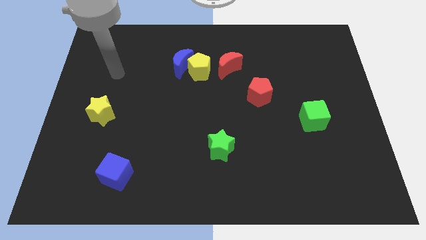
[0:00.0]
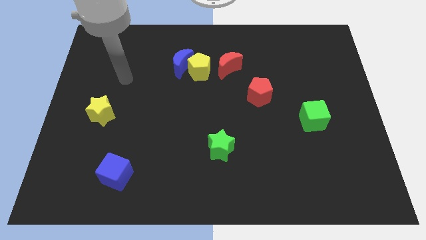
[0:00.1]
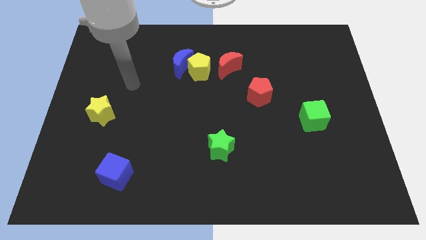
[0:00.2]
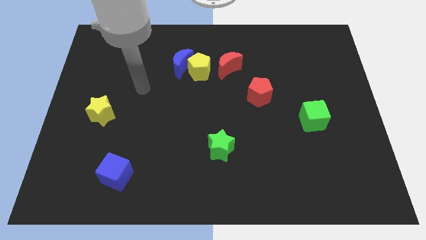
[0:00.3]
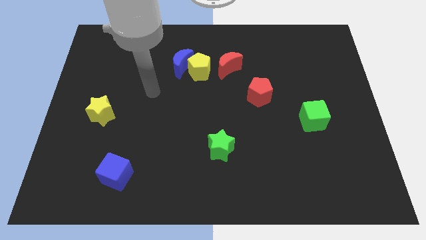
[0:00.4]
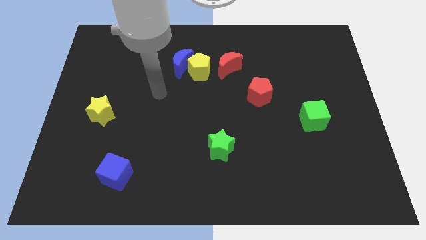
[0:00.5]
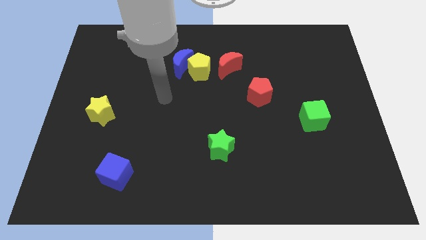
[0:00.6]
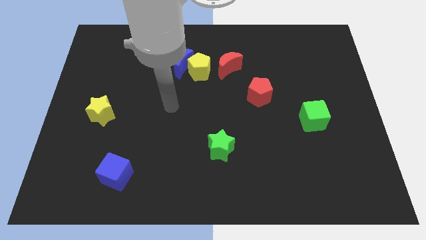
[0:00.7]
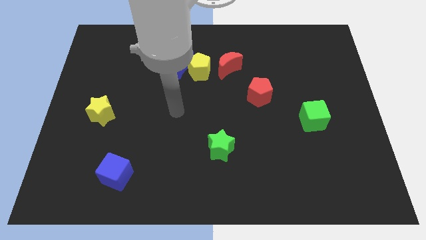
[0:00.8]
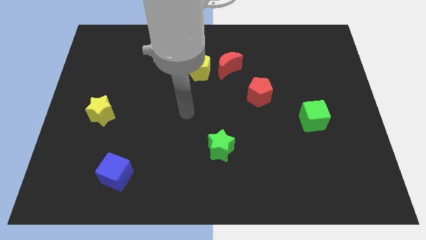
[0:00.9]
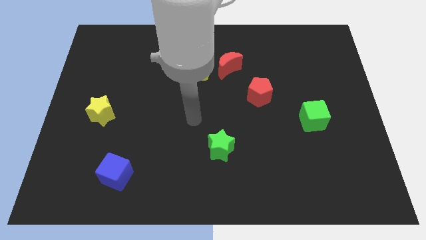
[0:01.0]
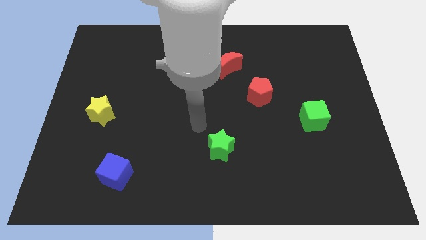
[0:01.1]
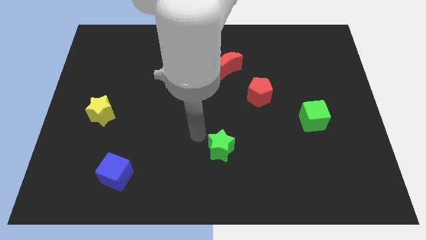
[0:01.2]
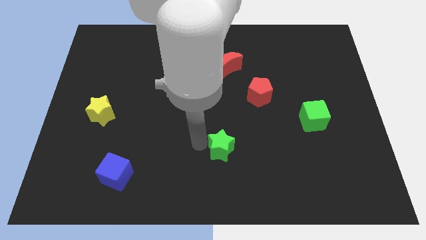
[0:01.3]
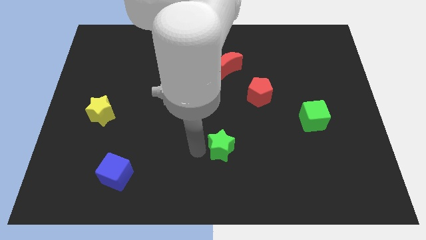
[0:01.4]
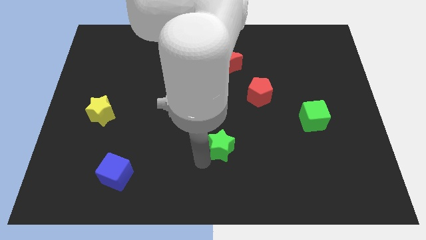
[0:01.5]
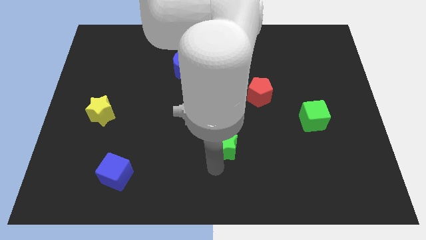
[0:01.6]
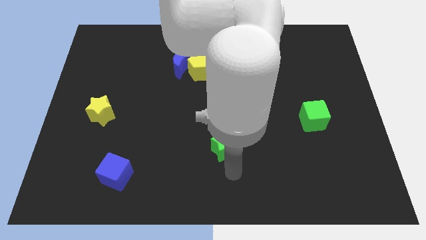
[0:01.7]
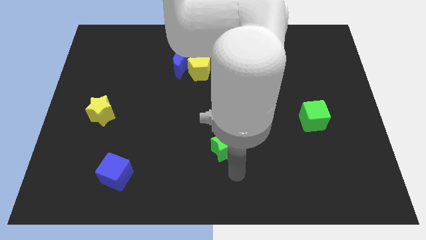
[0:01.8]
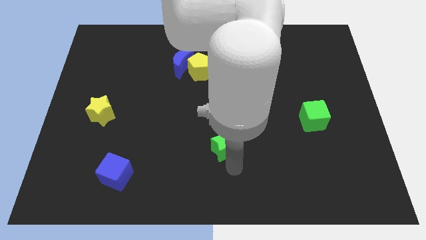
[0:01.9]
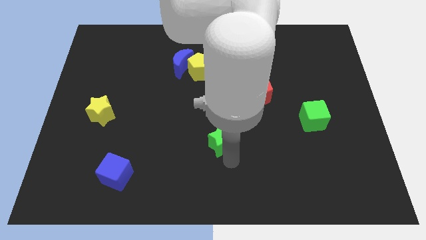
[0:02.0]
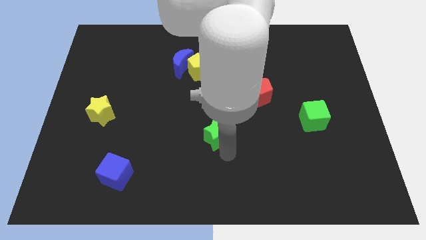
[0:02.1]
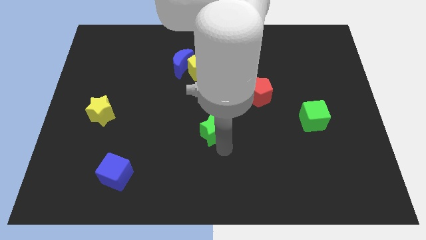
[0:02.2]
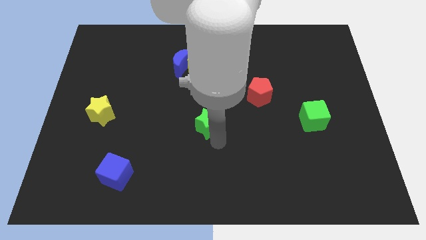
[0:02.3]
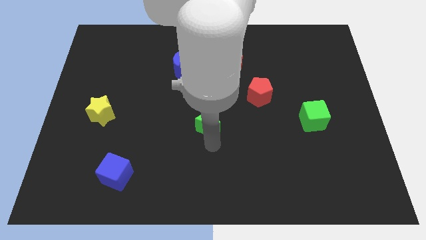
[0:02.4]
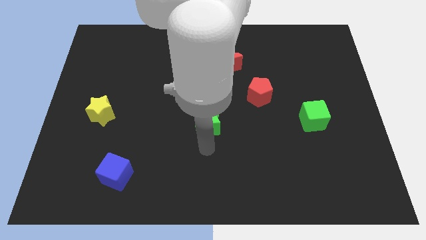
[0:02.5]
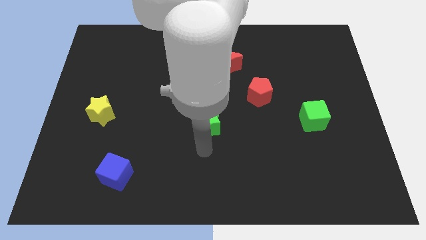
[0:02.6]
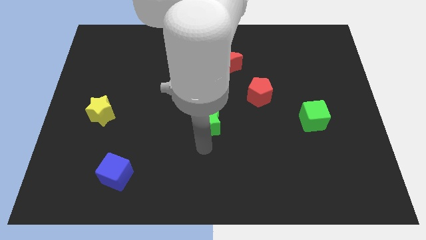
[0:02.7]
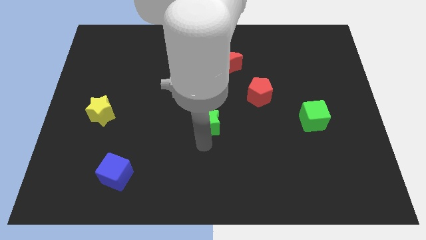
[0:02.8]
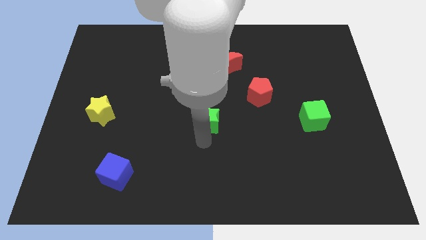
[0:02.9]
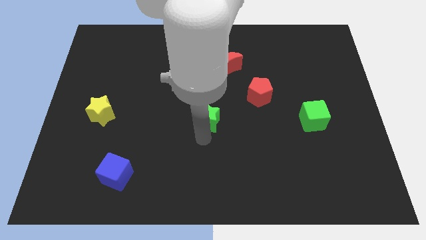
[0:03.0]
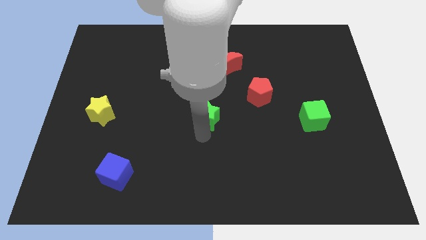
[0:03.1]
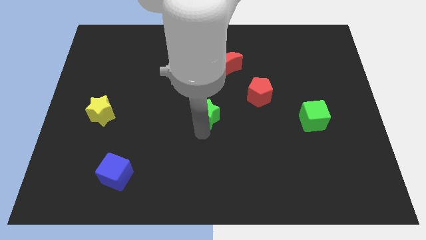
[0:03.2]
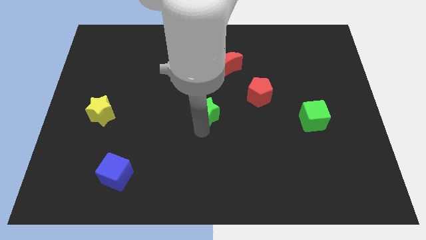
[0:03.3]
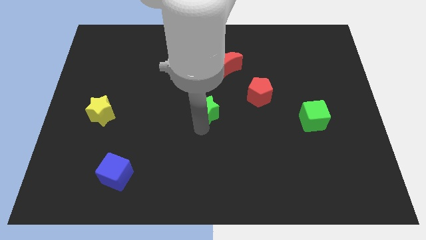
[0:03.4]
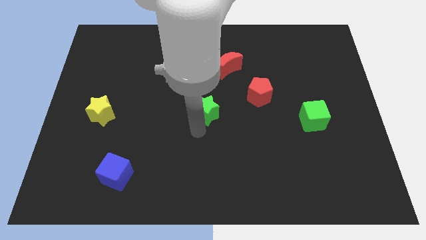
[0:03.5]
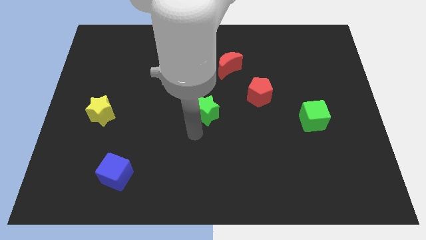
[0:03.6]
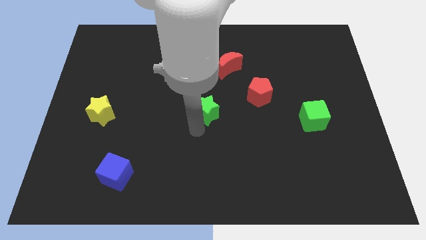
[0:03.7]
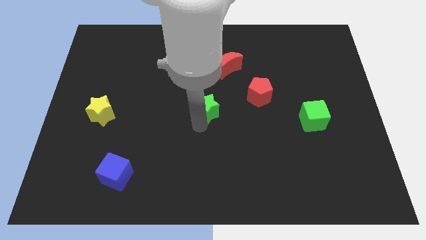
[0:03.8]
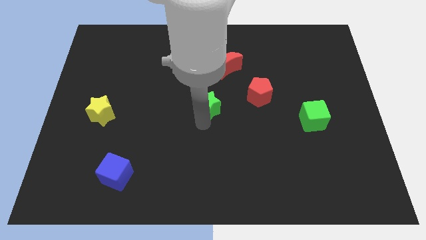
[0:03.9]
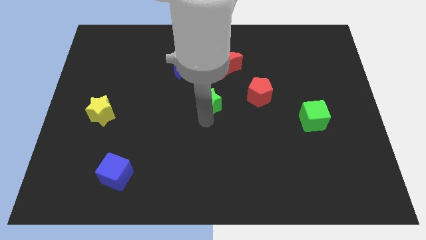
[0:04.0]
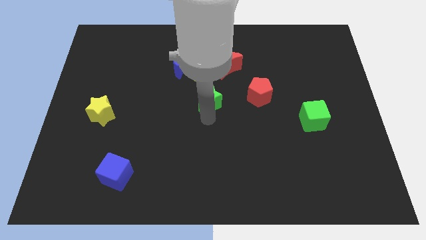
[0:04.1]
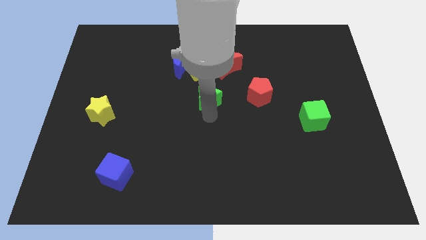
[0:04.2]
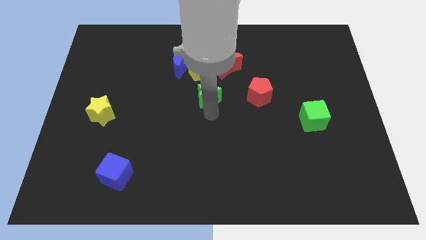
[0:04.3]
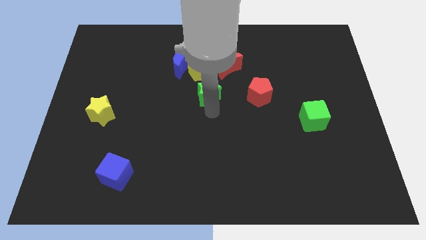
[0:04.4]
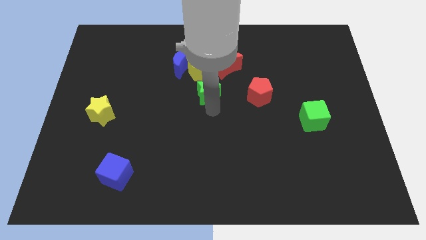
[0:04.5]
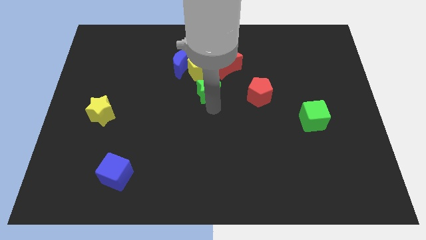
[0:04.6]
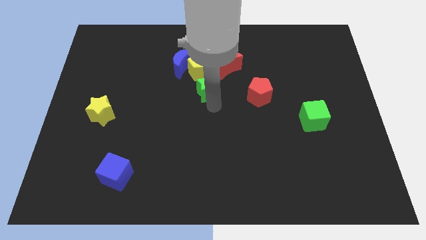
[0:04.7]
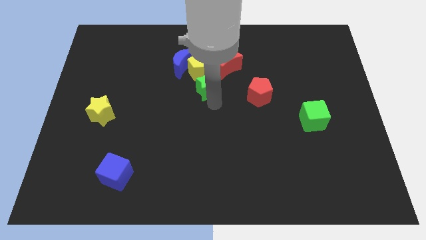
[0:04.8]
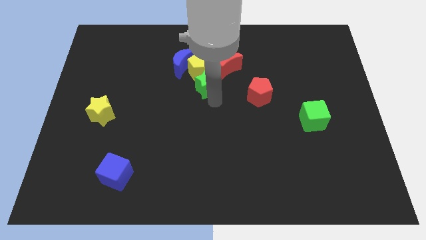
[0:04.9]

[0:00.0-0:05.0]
slide the green star next to the yellow pentagon

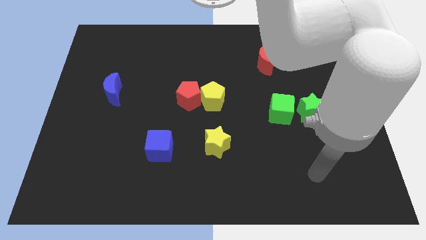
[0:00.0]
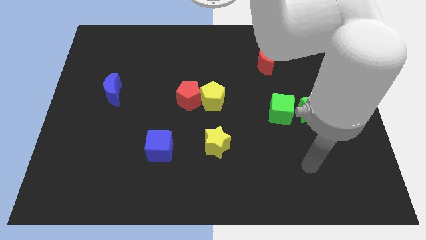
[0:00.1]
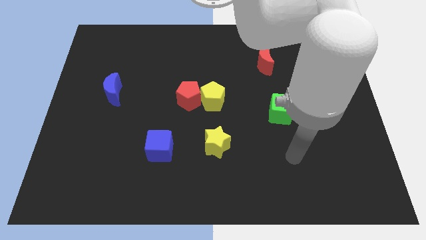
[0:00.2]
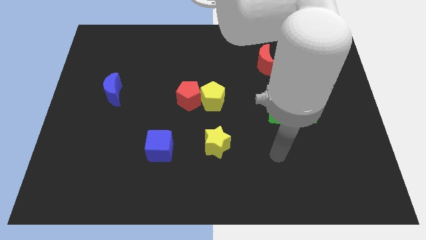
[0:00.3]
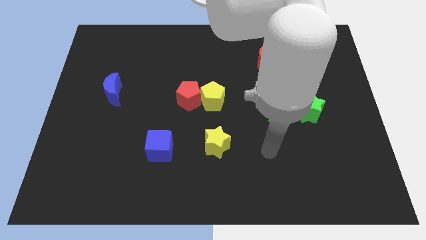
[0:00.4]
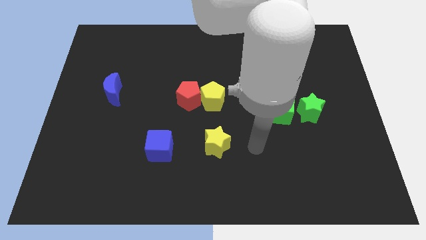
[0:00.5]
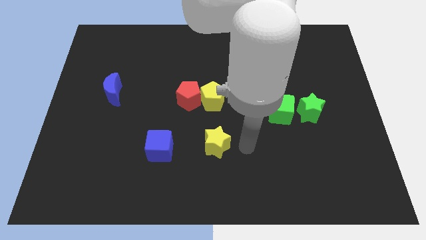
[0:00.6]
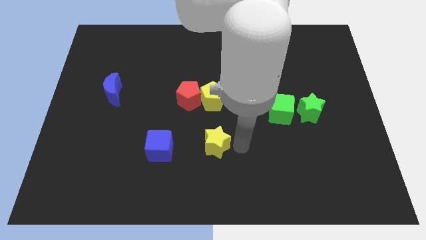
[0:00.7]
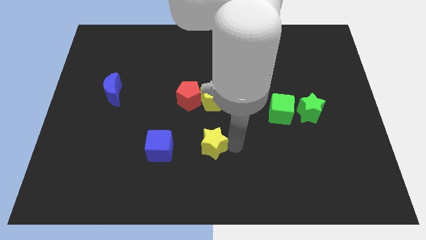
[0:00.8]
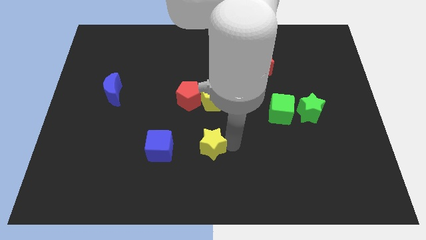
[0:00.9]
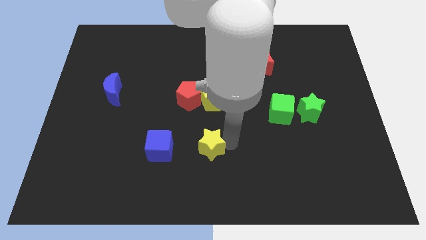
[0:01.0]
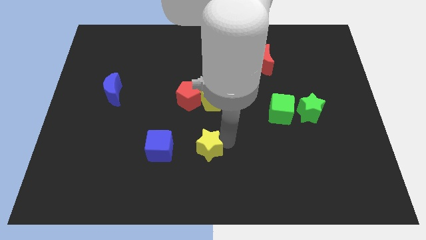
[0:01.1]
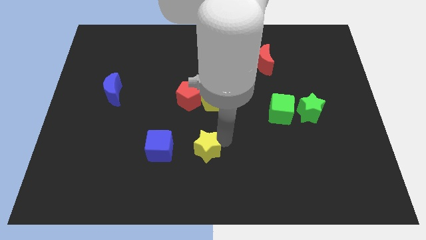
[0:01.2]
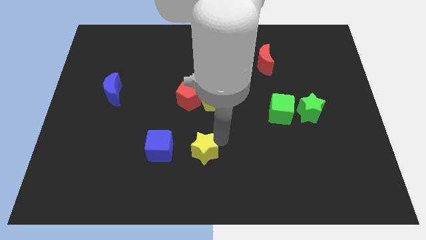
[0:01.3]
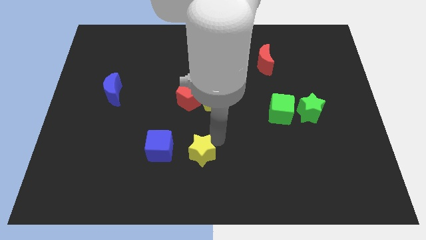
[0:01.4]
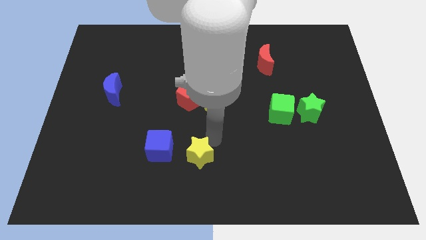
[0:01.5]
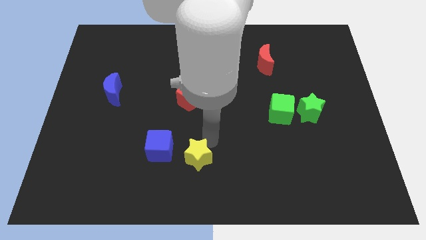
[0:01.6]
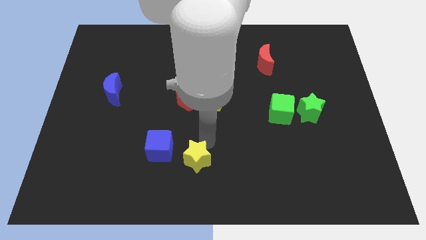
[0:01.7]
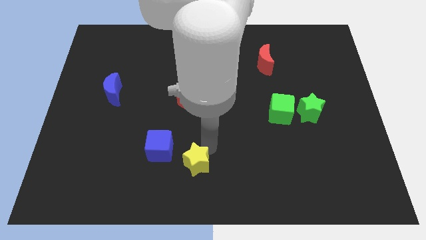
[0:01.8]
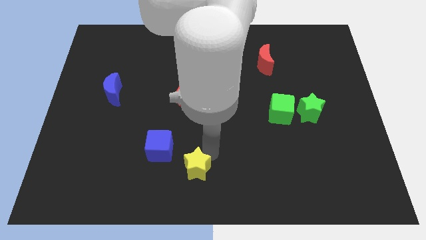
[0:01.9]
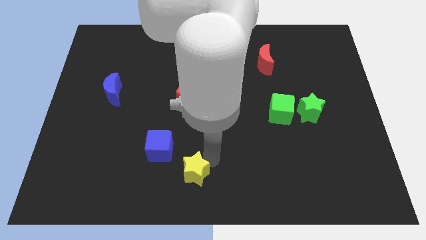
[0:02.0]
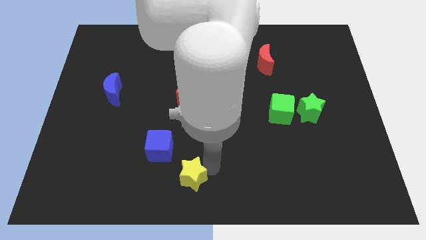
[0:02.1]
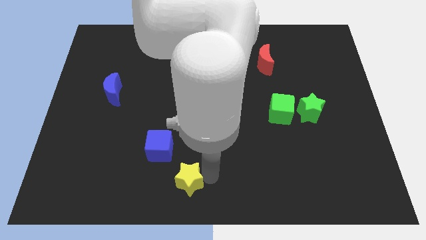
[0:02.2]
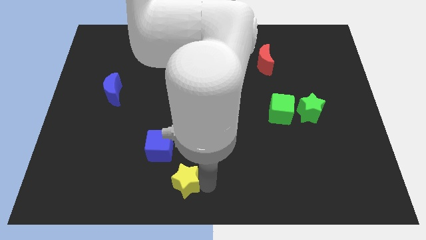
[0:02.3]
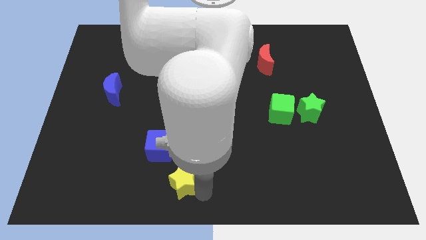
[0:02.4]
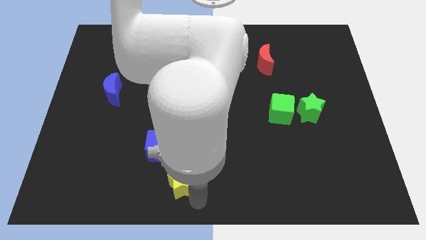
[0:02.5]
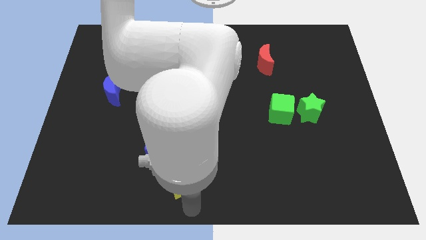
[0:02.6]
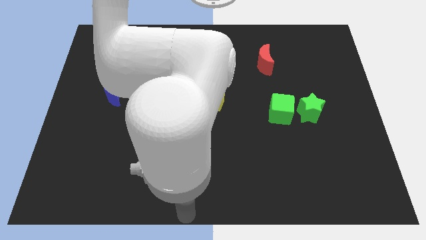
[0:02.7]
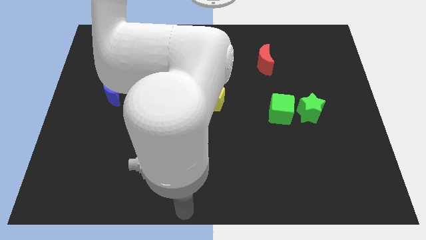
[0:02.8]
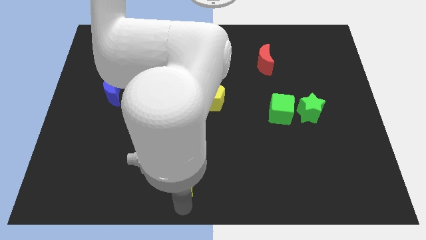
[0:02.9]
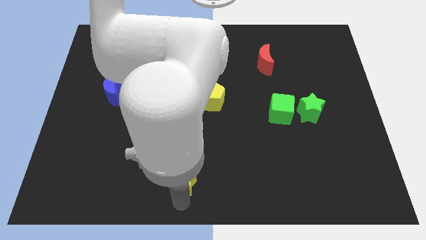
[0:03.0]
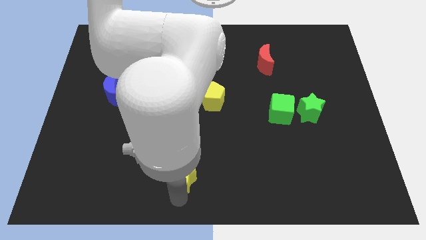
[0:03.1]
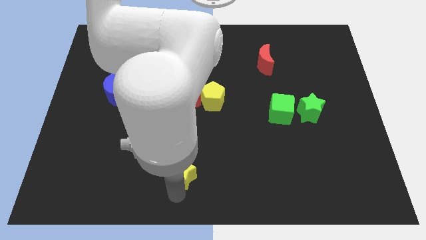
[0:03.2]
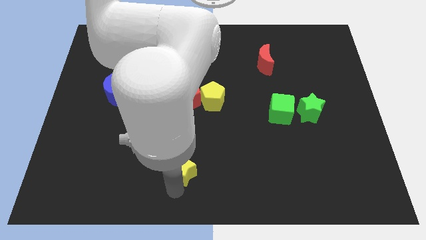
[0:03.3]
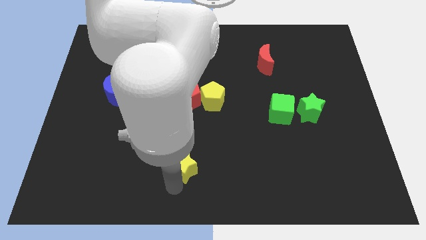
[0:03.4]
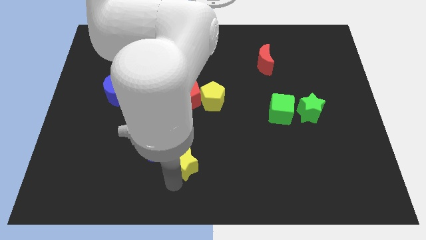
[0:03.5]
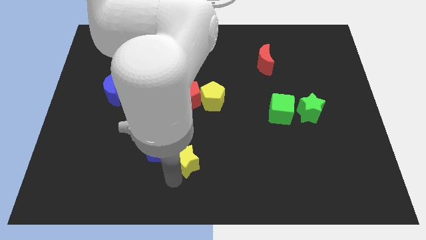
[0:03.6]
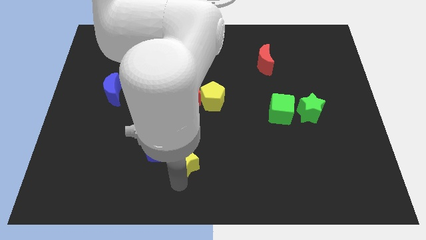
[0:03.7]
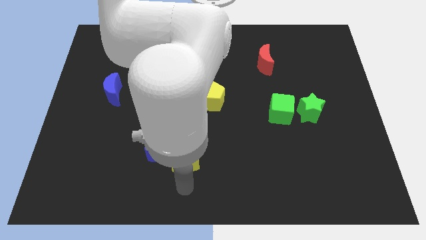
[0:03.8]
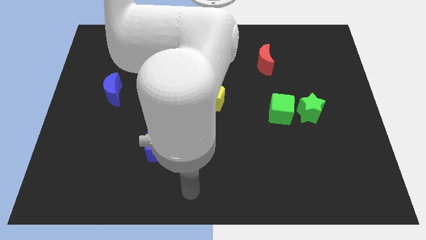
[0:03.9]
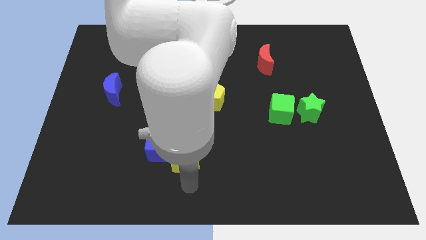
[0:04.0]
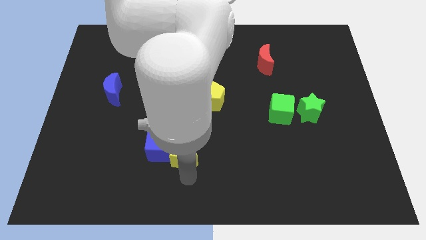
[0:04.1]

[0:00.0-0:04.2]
push the yellow star to the blue cube
